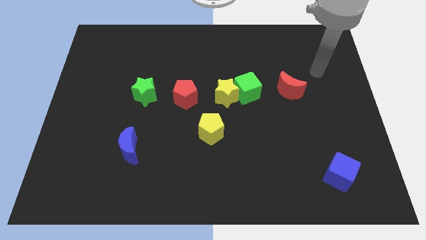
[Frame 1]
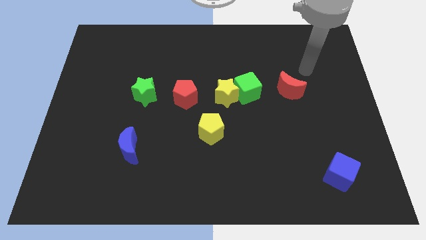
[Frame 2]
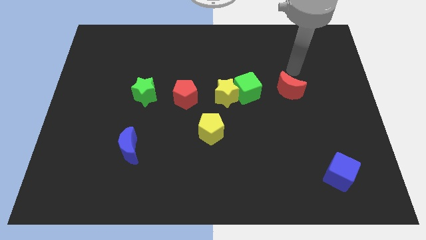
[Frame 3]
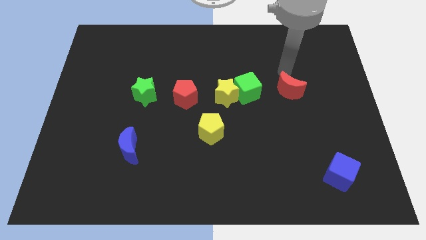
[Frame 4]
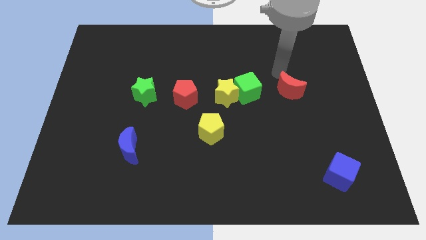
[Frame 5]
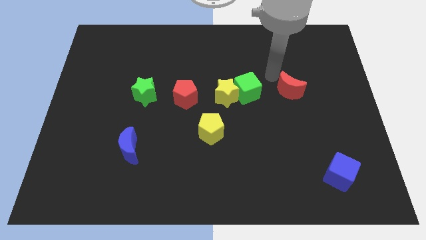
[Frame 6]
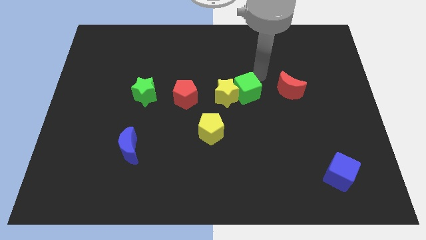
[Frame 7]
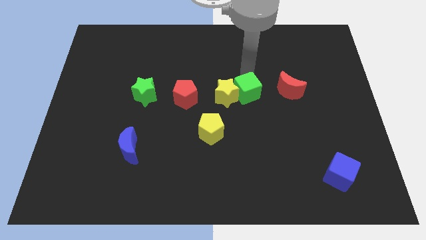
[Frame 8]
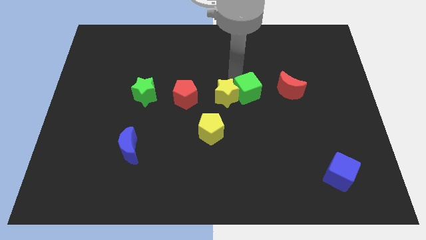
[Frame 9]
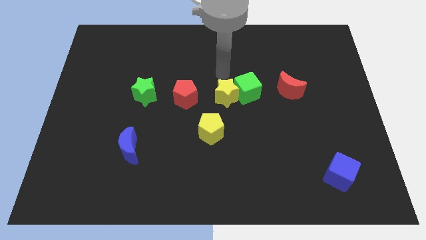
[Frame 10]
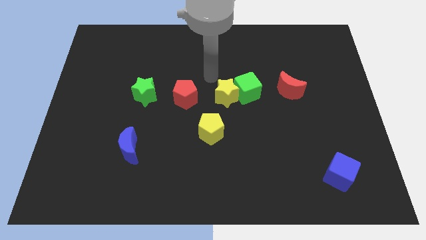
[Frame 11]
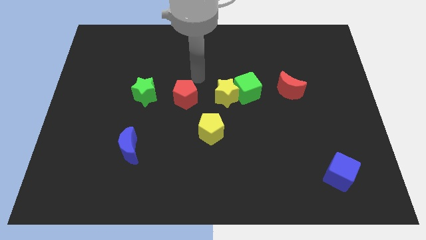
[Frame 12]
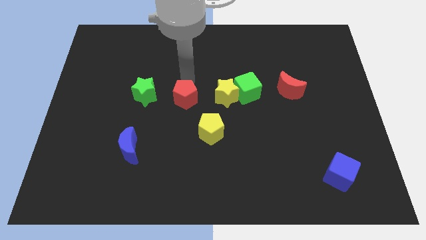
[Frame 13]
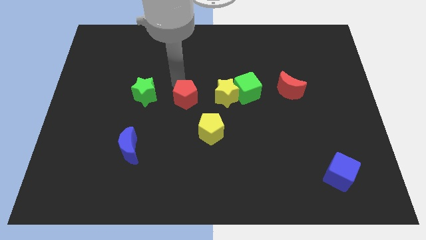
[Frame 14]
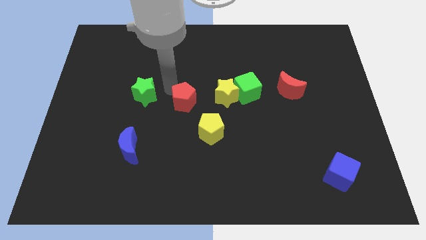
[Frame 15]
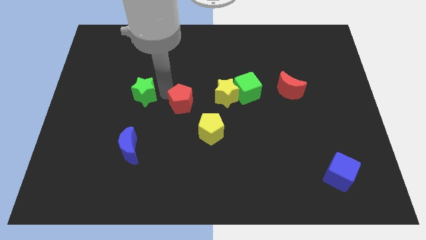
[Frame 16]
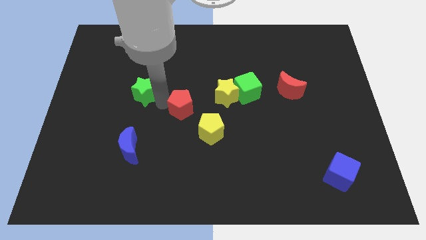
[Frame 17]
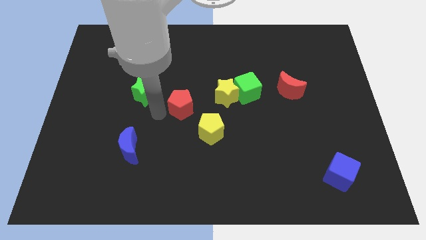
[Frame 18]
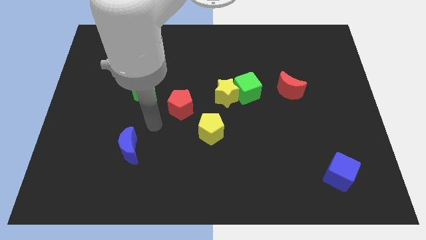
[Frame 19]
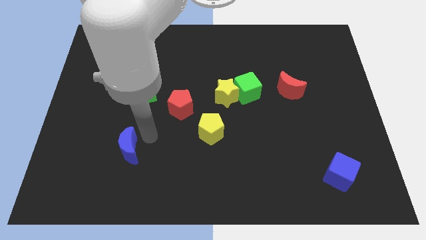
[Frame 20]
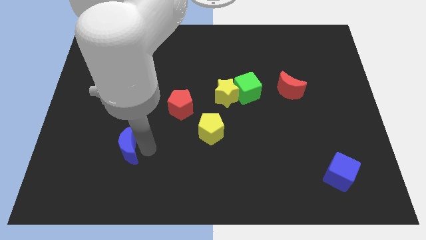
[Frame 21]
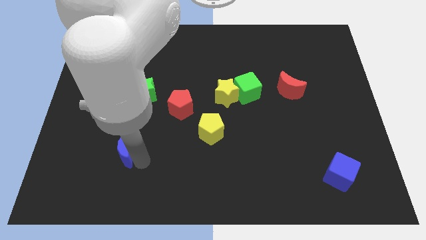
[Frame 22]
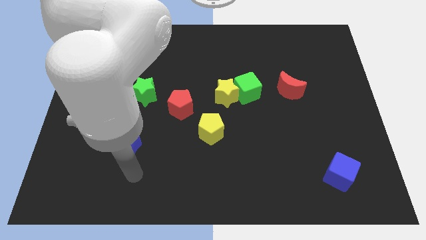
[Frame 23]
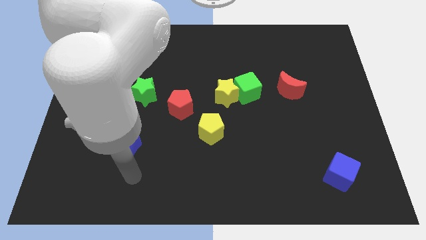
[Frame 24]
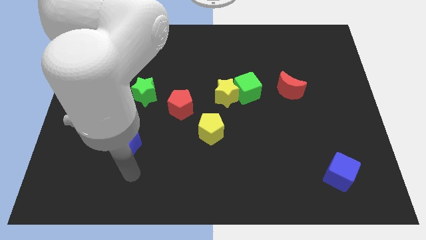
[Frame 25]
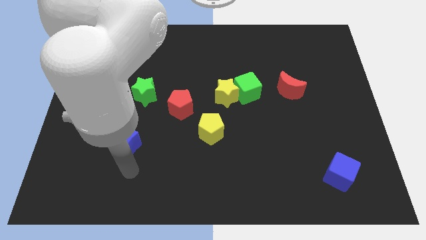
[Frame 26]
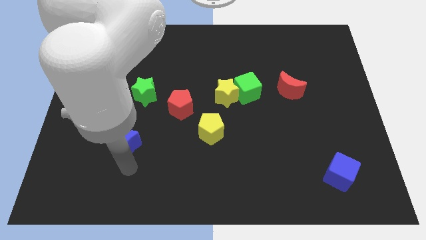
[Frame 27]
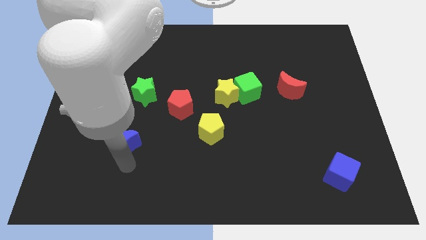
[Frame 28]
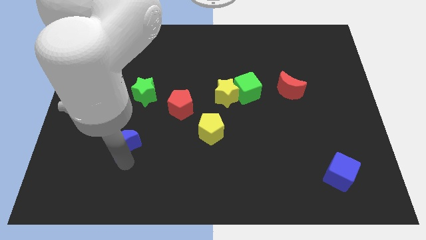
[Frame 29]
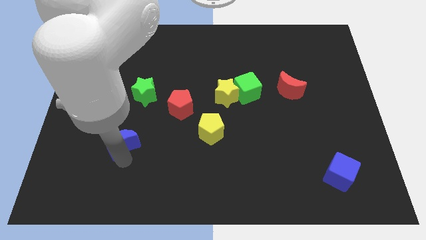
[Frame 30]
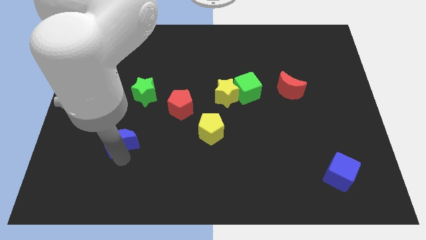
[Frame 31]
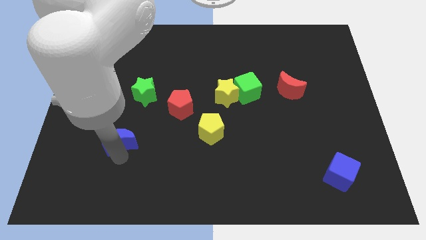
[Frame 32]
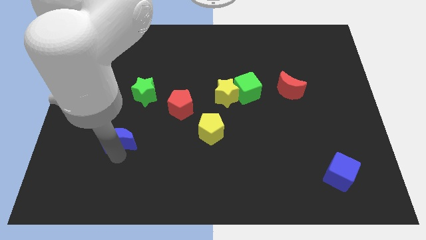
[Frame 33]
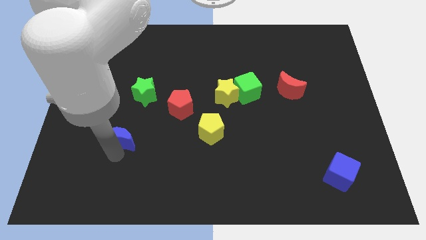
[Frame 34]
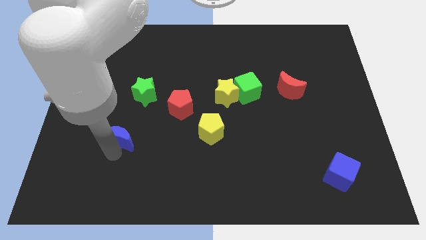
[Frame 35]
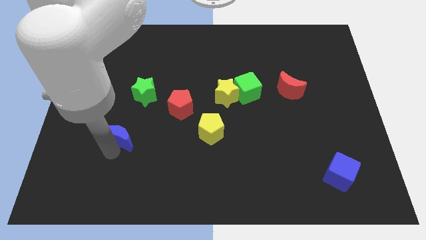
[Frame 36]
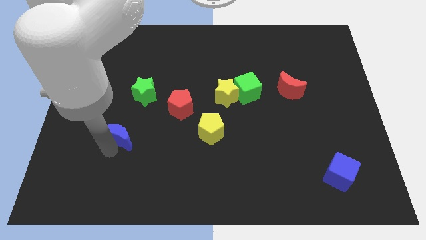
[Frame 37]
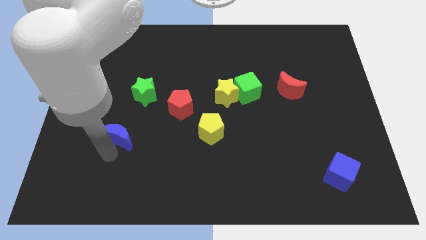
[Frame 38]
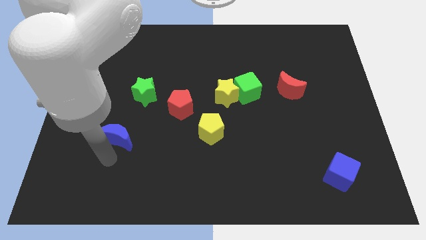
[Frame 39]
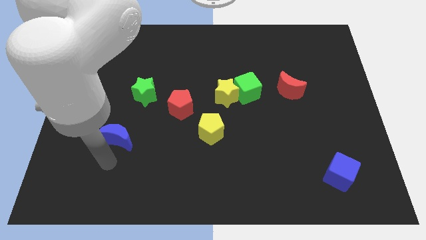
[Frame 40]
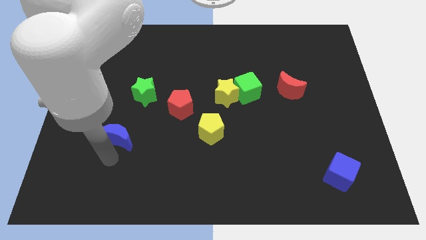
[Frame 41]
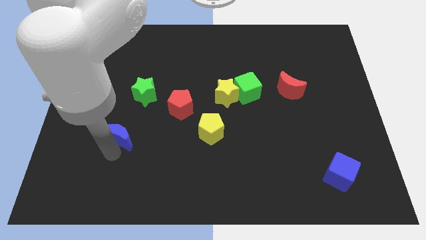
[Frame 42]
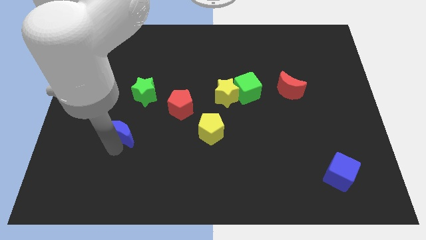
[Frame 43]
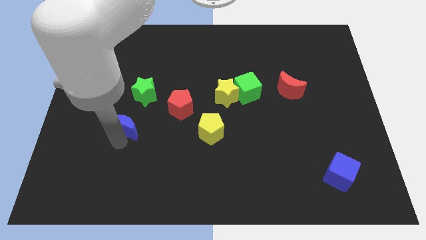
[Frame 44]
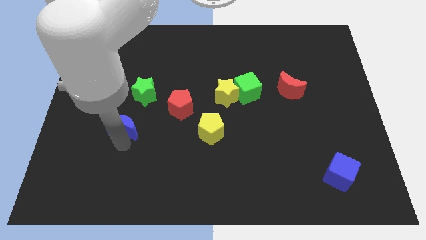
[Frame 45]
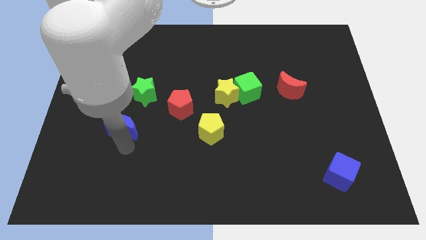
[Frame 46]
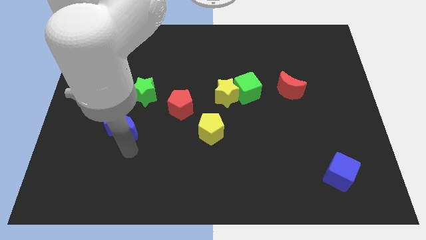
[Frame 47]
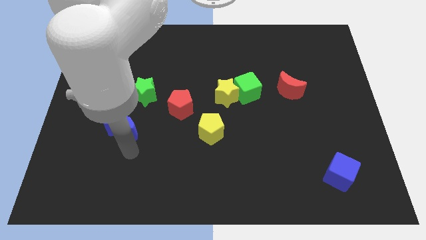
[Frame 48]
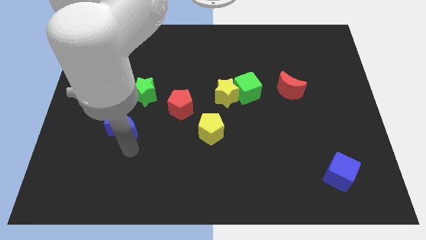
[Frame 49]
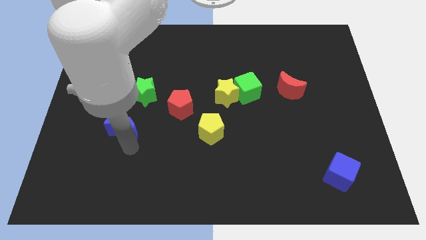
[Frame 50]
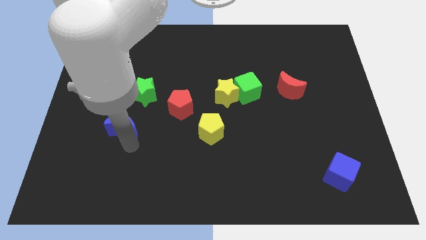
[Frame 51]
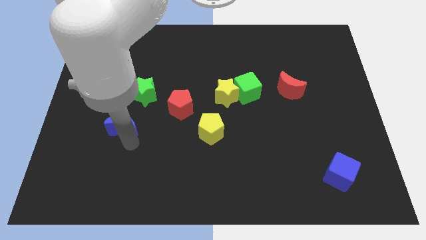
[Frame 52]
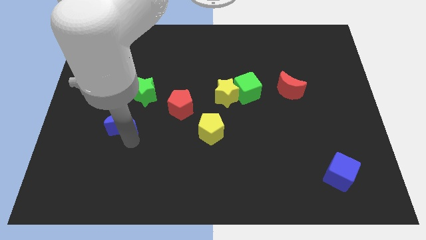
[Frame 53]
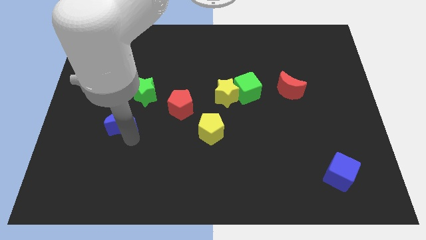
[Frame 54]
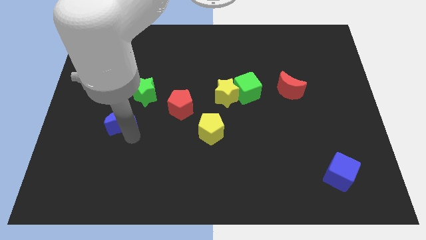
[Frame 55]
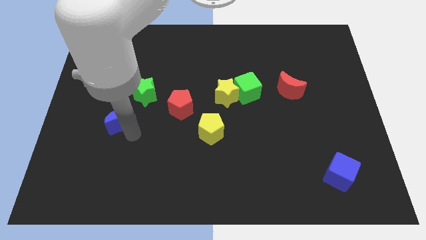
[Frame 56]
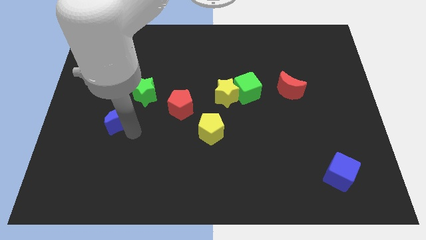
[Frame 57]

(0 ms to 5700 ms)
push the blue moon a little bit upwards

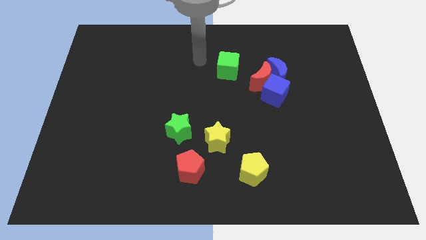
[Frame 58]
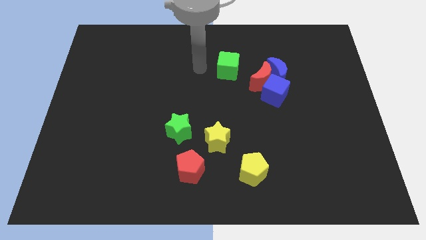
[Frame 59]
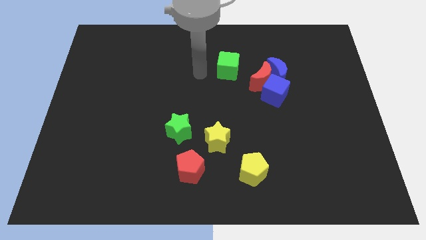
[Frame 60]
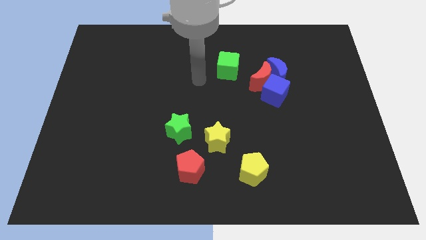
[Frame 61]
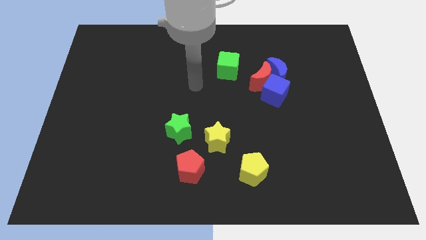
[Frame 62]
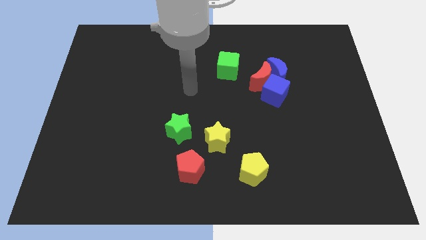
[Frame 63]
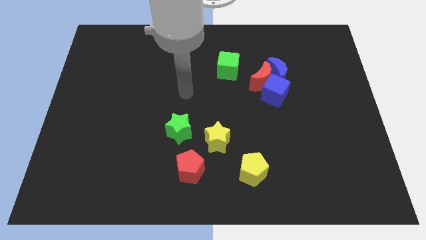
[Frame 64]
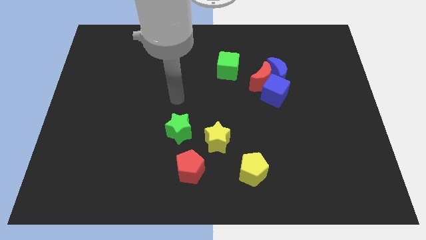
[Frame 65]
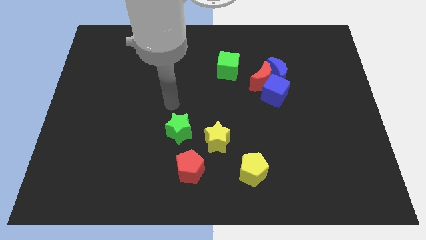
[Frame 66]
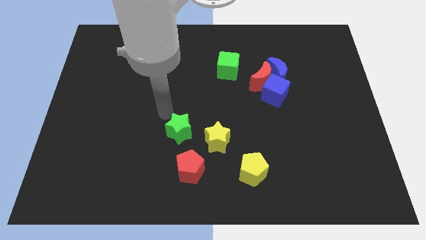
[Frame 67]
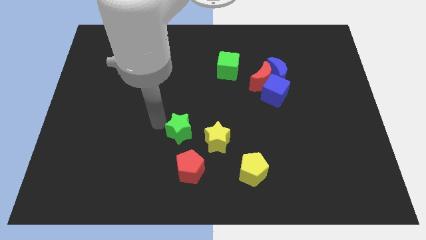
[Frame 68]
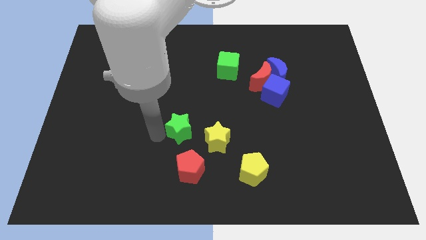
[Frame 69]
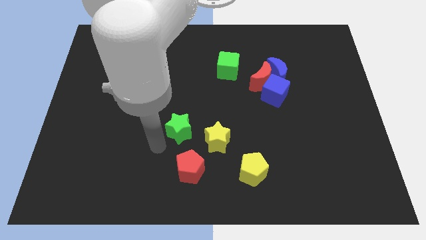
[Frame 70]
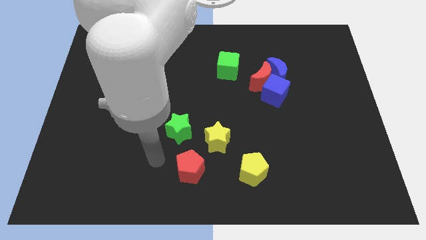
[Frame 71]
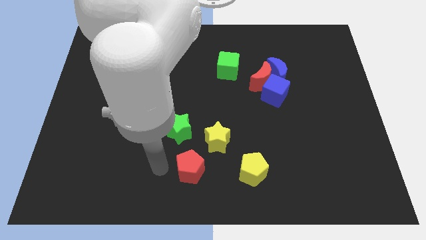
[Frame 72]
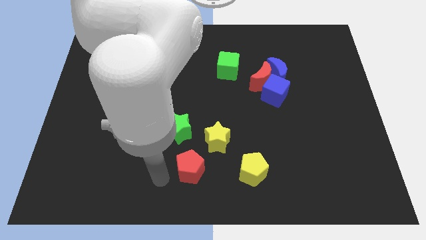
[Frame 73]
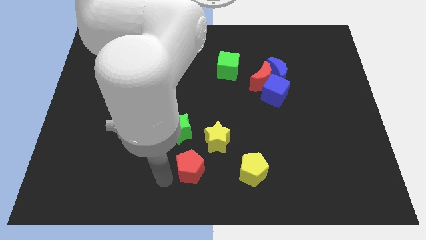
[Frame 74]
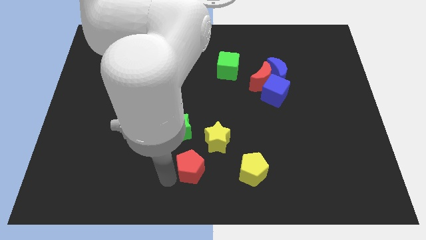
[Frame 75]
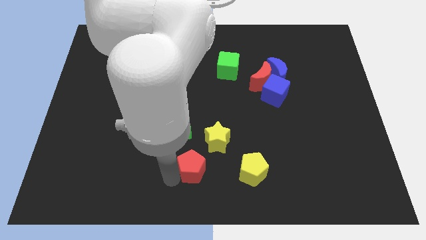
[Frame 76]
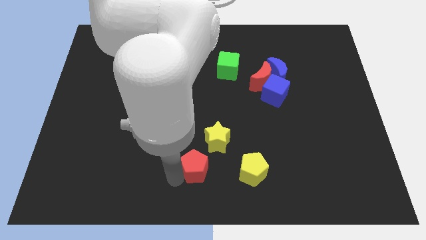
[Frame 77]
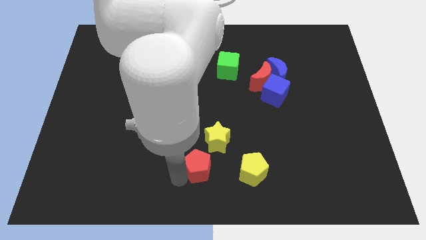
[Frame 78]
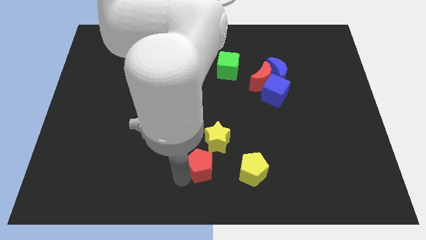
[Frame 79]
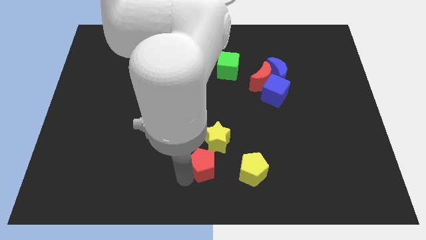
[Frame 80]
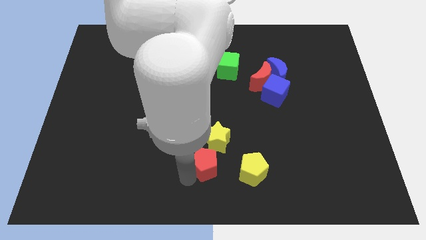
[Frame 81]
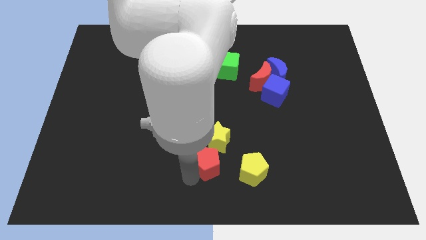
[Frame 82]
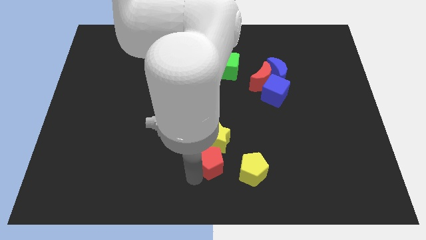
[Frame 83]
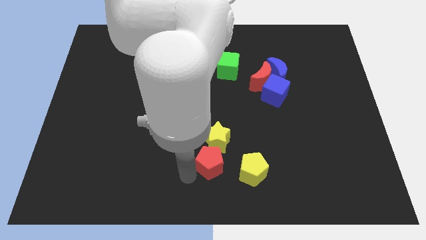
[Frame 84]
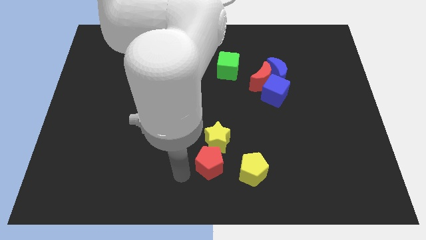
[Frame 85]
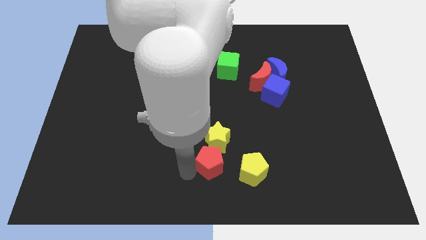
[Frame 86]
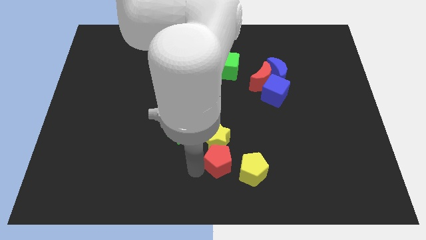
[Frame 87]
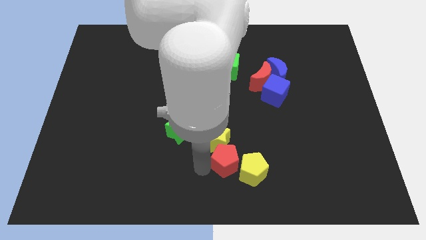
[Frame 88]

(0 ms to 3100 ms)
push the red pentagon to the right a little bit
